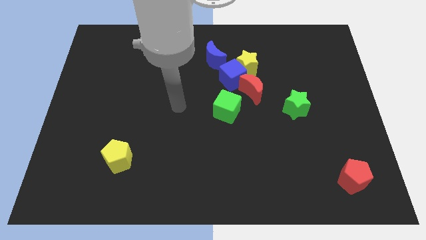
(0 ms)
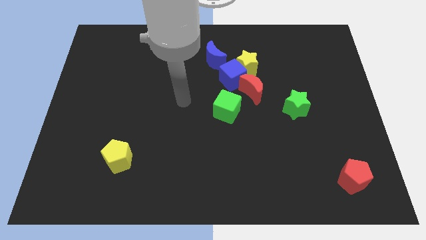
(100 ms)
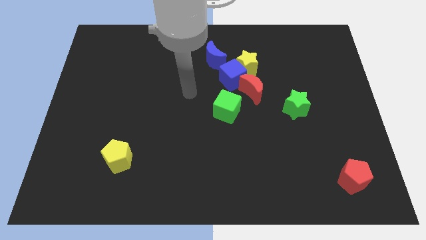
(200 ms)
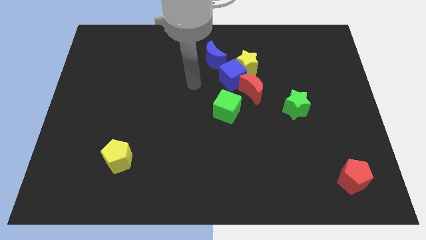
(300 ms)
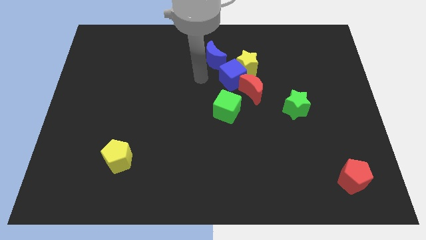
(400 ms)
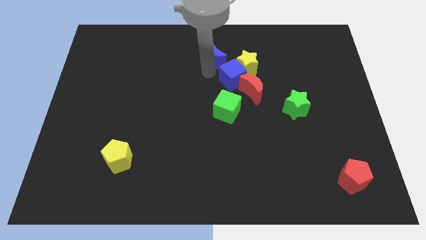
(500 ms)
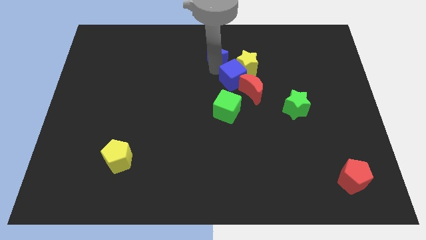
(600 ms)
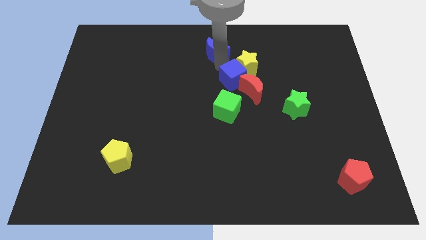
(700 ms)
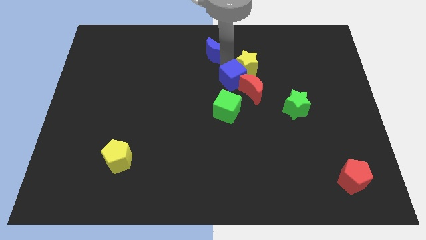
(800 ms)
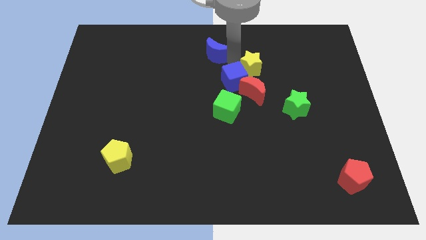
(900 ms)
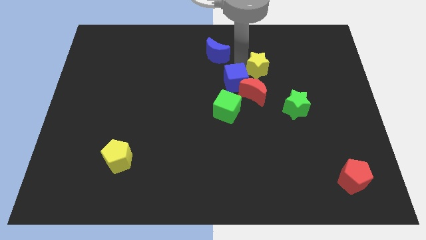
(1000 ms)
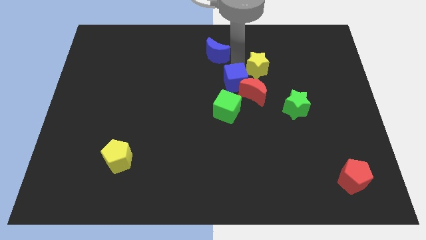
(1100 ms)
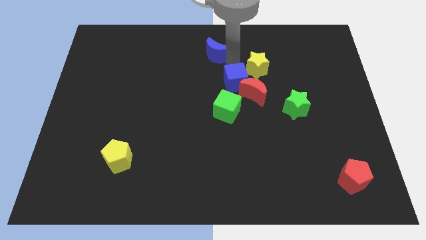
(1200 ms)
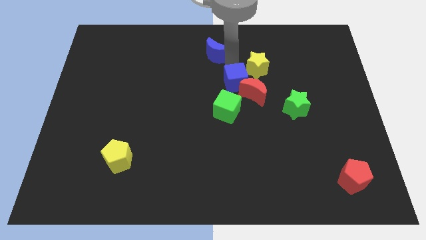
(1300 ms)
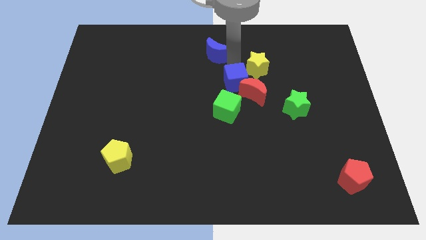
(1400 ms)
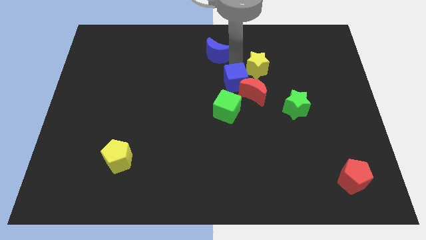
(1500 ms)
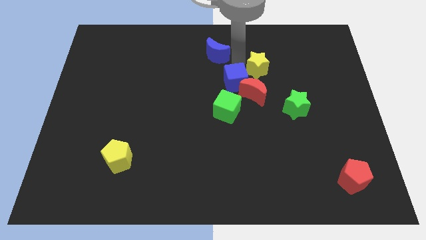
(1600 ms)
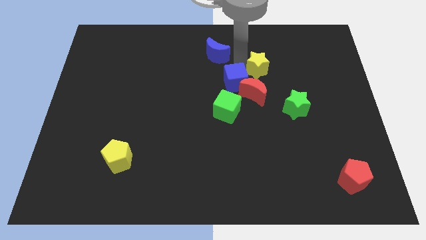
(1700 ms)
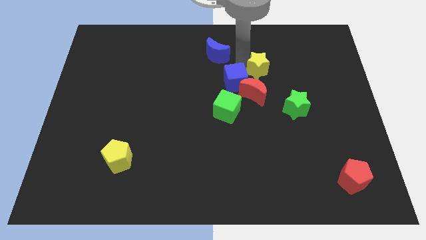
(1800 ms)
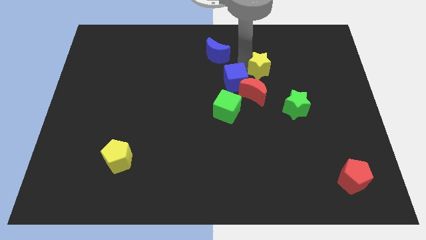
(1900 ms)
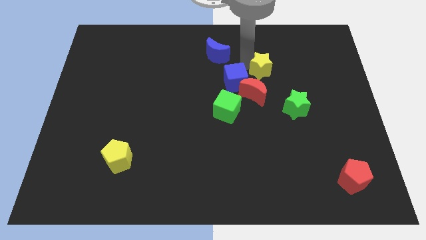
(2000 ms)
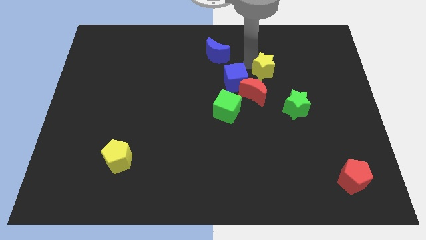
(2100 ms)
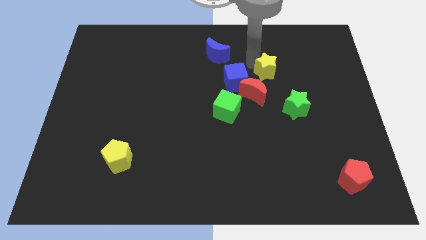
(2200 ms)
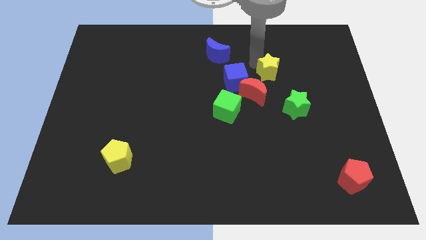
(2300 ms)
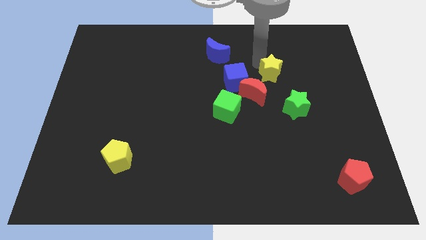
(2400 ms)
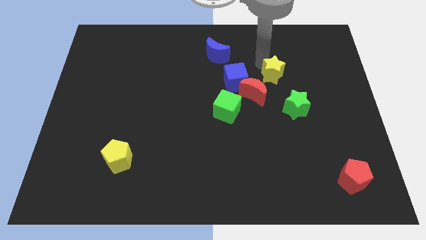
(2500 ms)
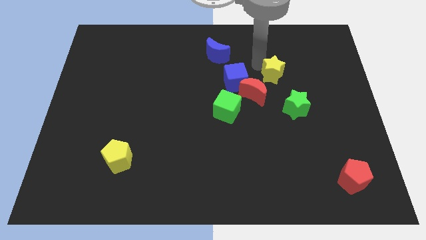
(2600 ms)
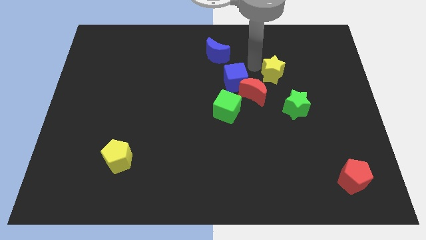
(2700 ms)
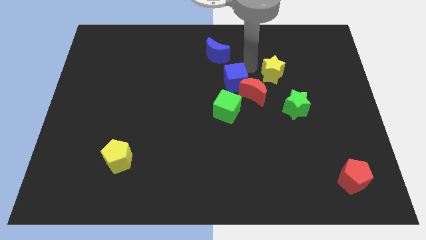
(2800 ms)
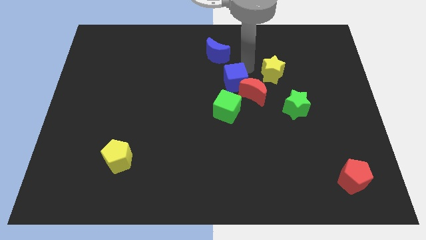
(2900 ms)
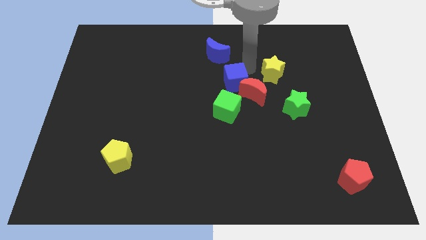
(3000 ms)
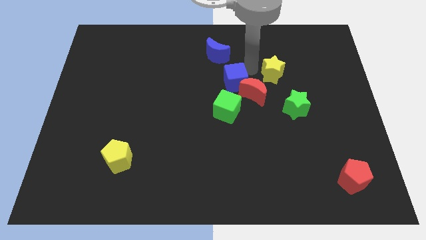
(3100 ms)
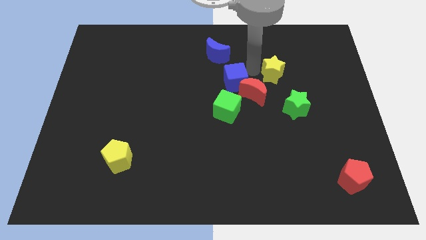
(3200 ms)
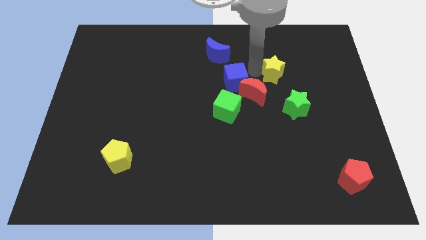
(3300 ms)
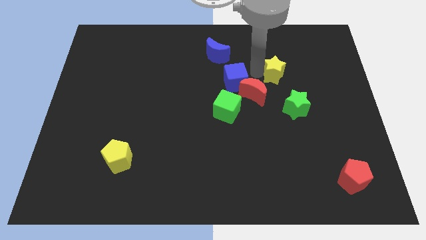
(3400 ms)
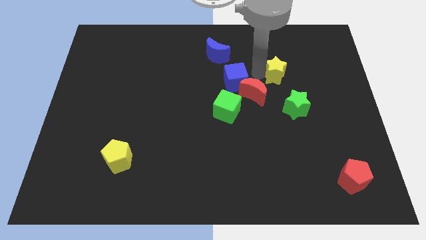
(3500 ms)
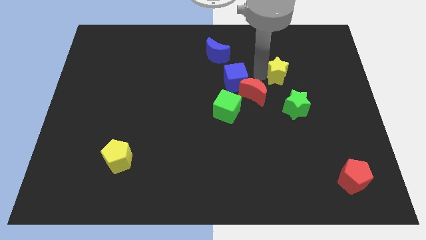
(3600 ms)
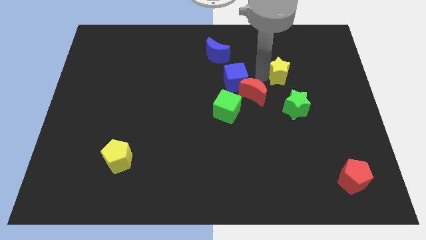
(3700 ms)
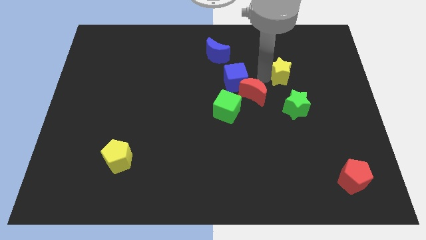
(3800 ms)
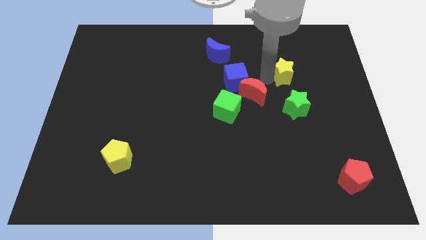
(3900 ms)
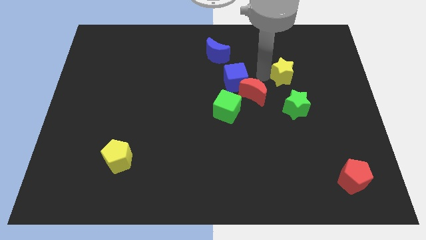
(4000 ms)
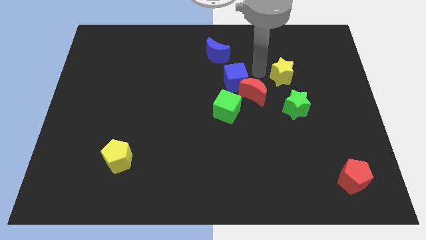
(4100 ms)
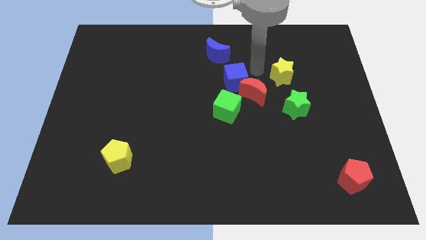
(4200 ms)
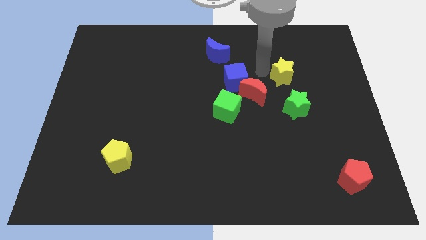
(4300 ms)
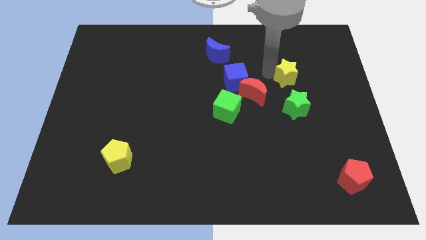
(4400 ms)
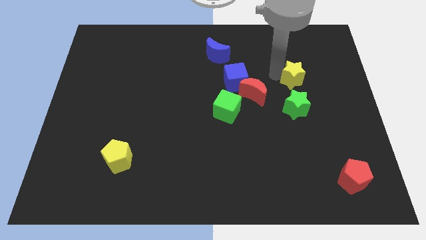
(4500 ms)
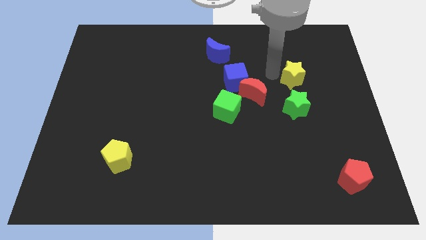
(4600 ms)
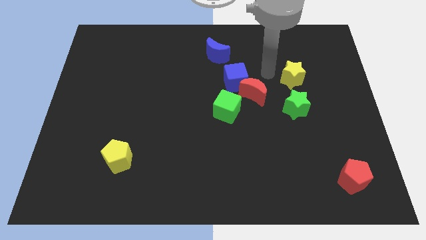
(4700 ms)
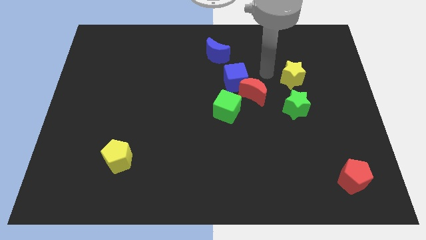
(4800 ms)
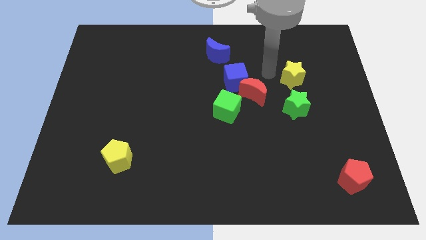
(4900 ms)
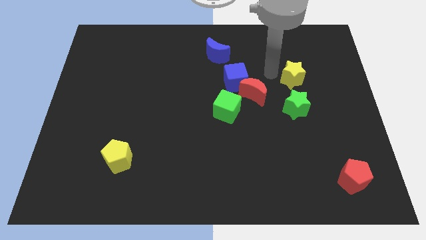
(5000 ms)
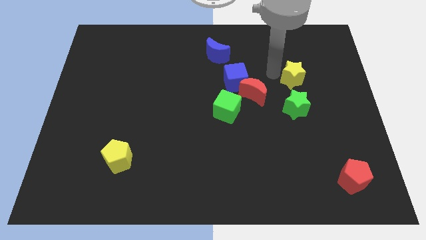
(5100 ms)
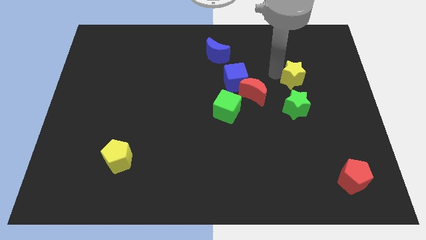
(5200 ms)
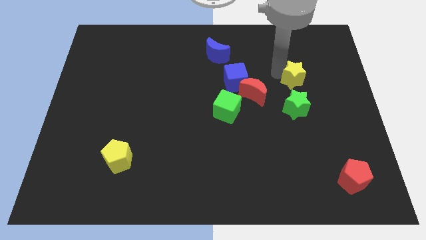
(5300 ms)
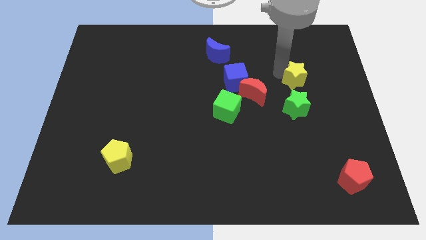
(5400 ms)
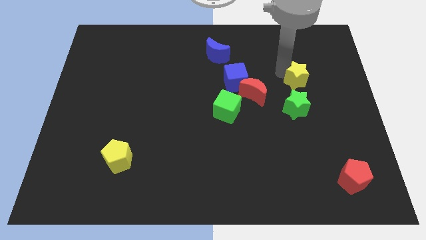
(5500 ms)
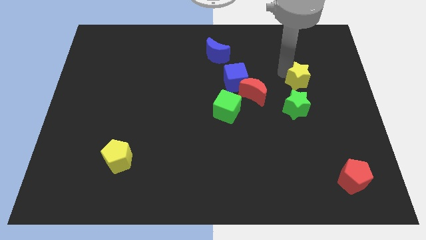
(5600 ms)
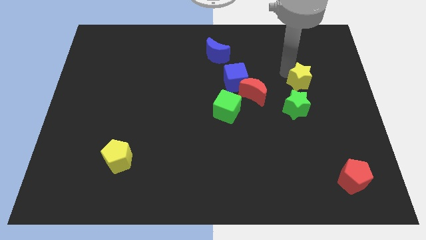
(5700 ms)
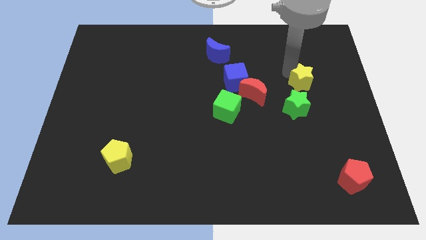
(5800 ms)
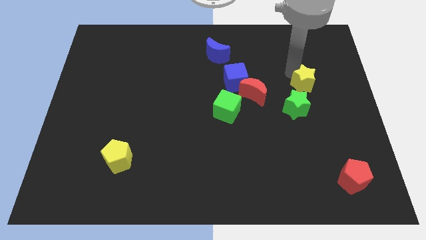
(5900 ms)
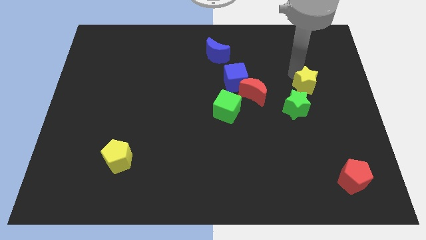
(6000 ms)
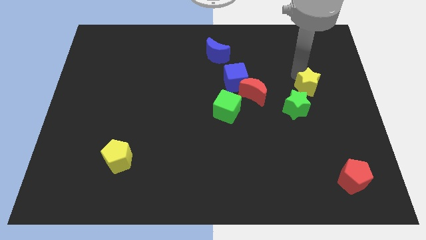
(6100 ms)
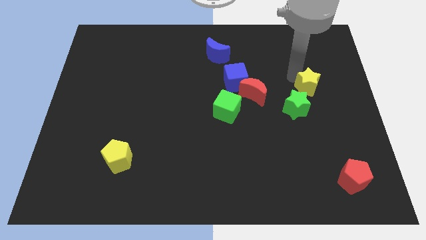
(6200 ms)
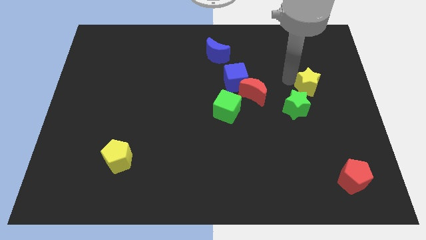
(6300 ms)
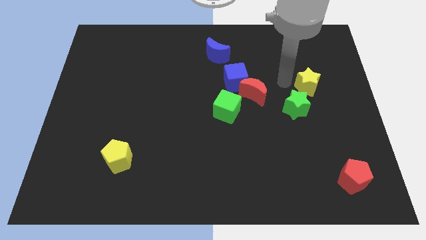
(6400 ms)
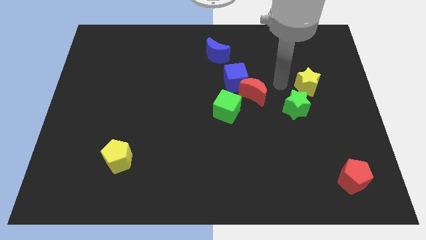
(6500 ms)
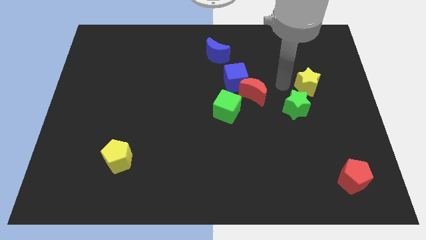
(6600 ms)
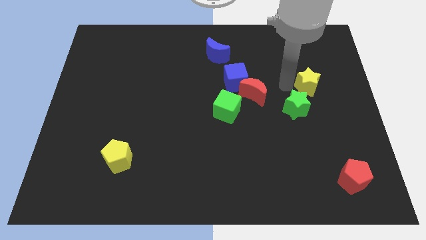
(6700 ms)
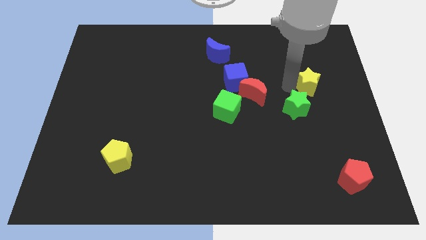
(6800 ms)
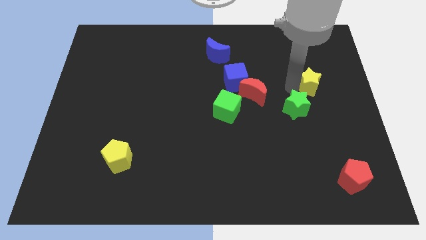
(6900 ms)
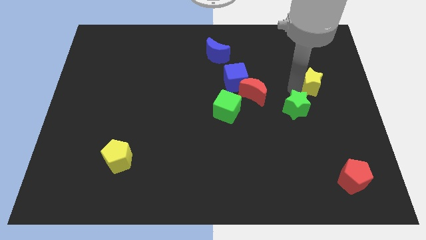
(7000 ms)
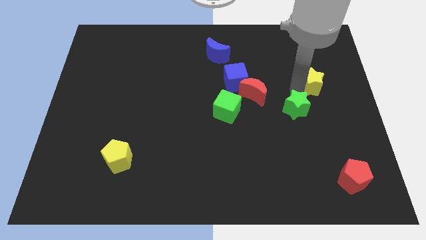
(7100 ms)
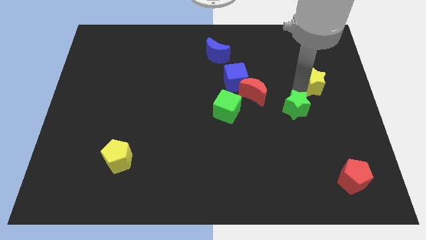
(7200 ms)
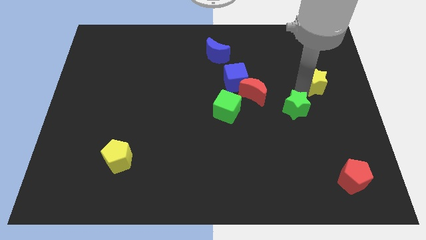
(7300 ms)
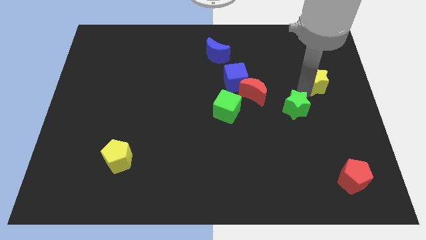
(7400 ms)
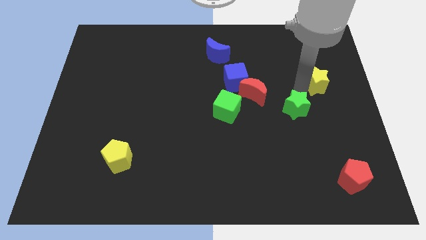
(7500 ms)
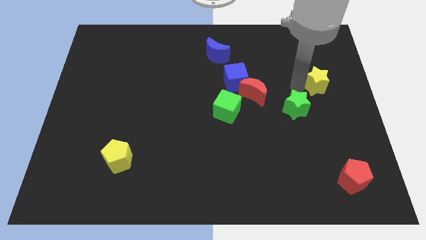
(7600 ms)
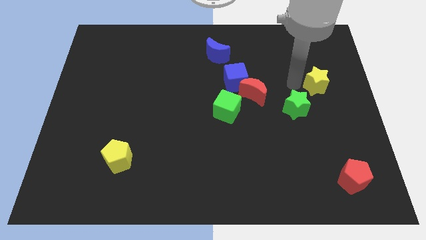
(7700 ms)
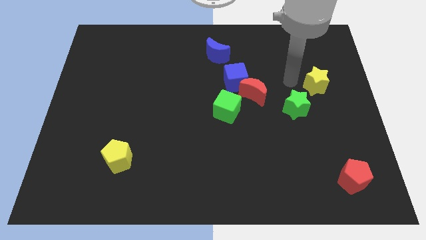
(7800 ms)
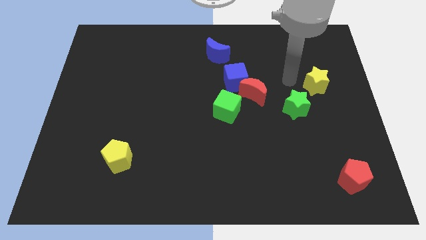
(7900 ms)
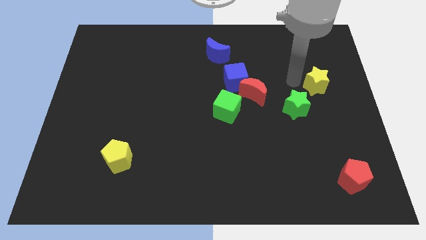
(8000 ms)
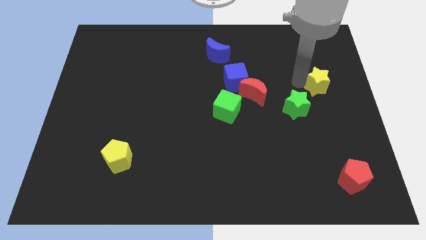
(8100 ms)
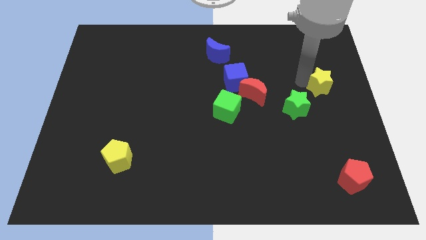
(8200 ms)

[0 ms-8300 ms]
slide the yellow star to the right side
